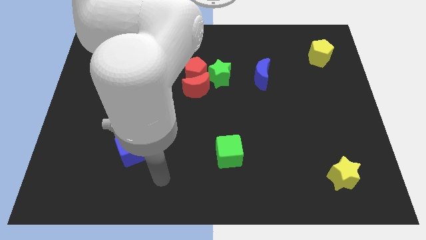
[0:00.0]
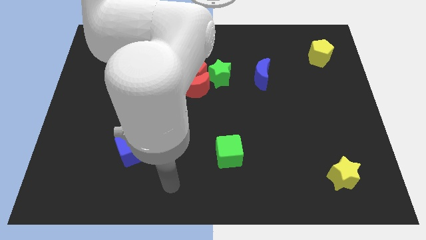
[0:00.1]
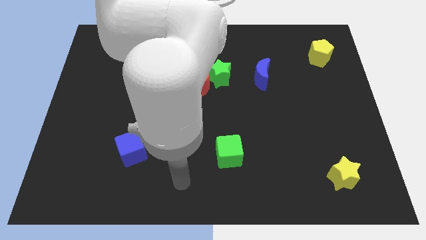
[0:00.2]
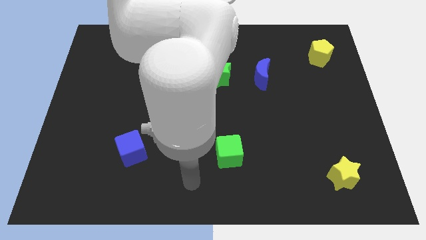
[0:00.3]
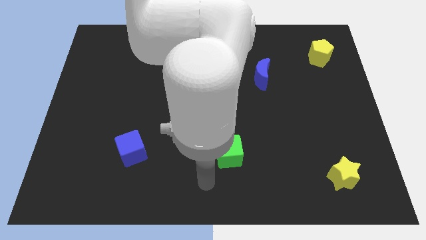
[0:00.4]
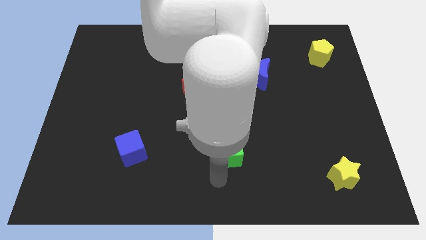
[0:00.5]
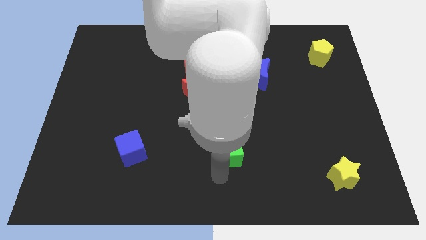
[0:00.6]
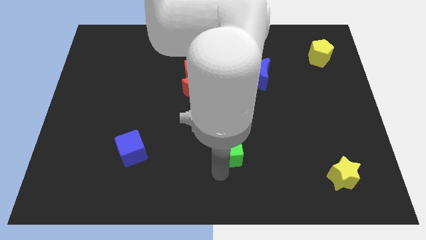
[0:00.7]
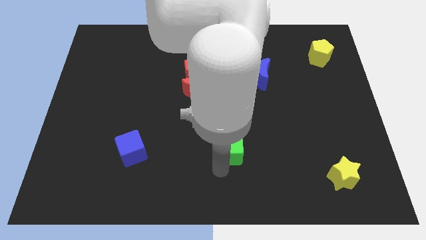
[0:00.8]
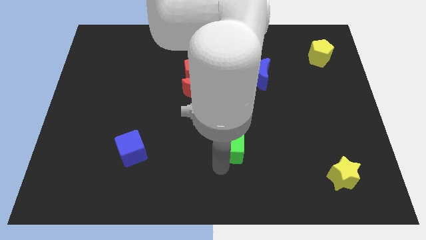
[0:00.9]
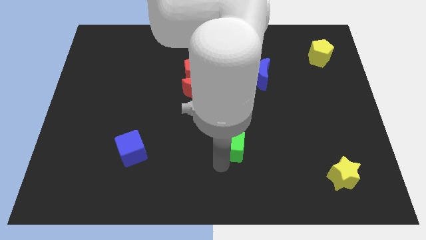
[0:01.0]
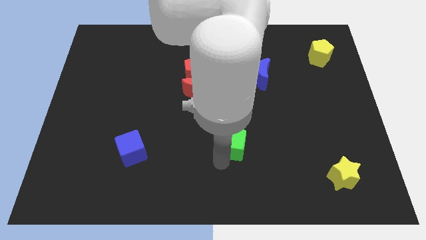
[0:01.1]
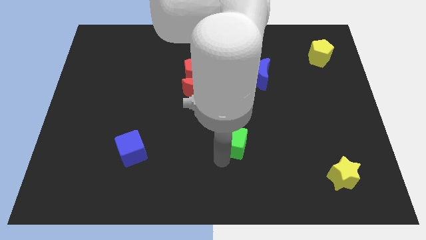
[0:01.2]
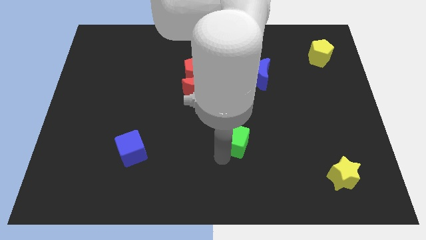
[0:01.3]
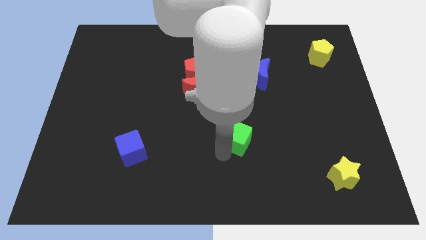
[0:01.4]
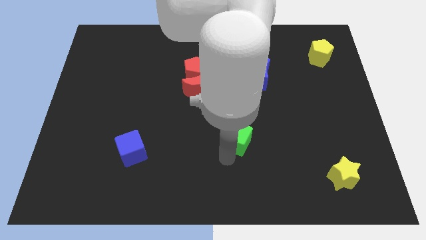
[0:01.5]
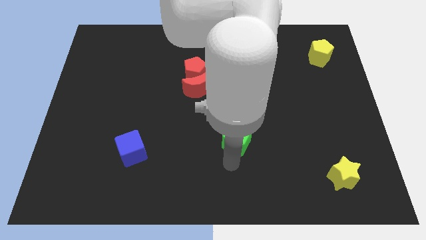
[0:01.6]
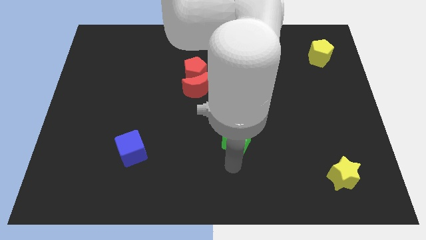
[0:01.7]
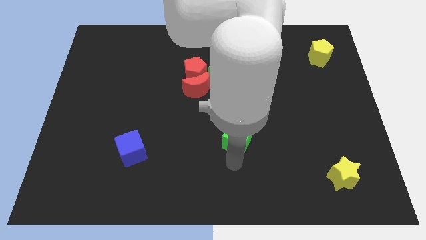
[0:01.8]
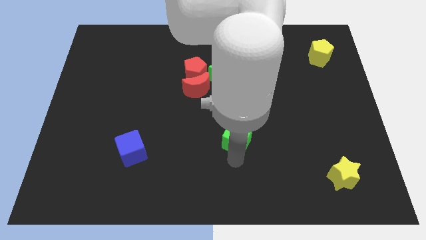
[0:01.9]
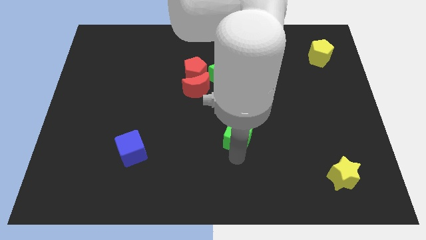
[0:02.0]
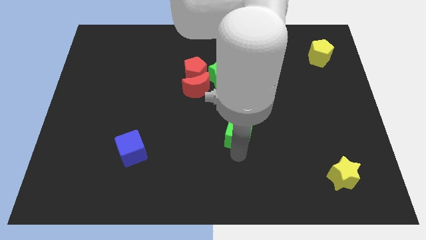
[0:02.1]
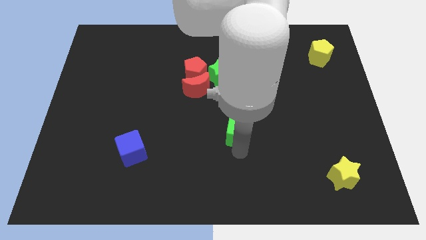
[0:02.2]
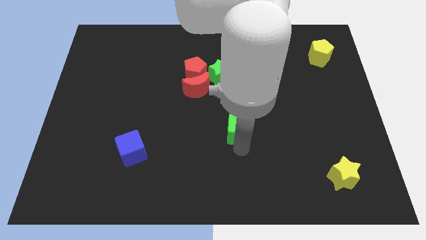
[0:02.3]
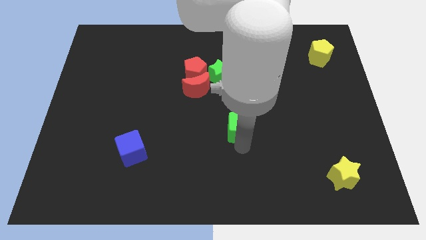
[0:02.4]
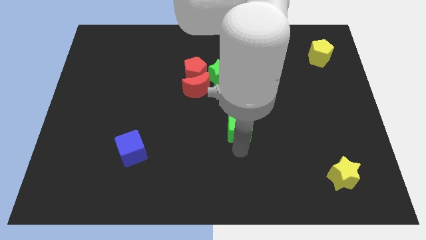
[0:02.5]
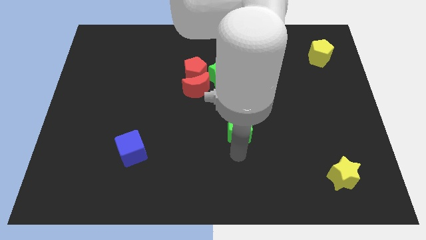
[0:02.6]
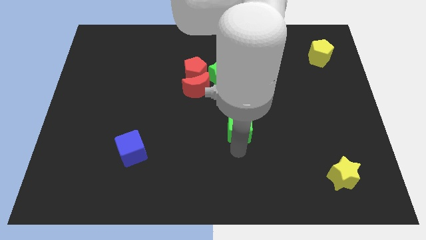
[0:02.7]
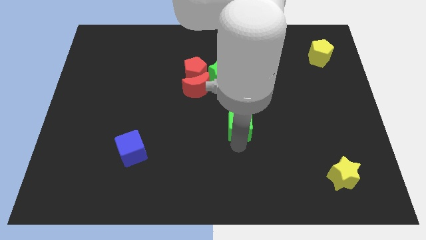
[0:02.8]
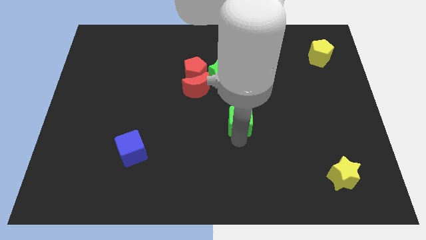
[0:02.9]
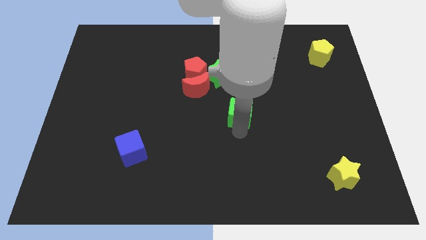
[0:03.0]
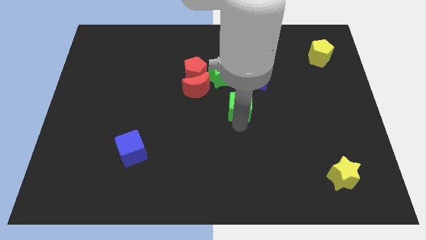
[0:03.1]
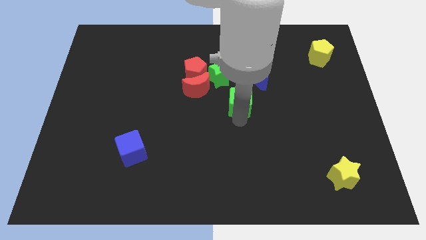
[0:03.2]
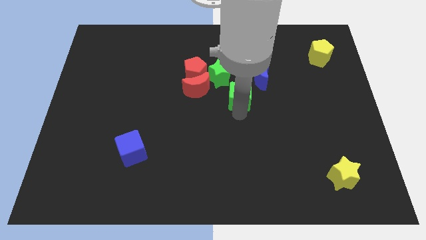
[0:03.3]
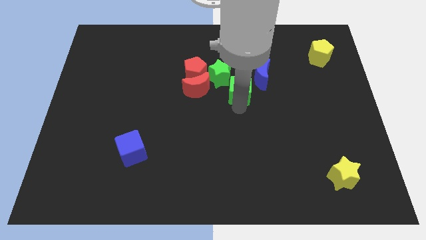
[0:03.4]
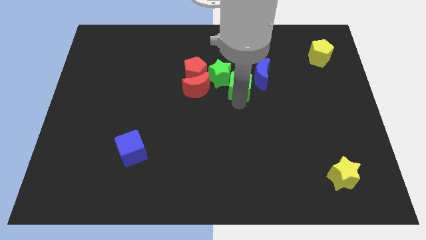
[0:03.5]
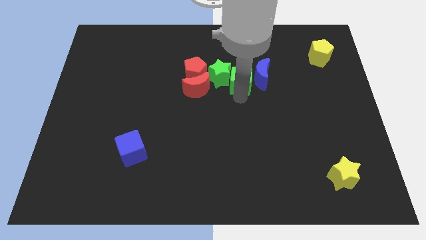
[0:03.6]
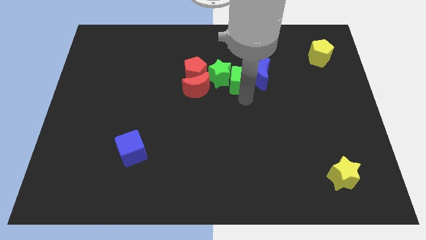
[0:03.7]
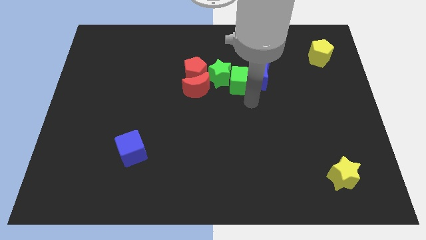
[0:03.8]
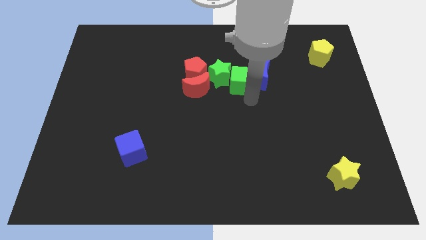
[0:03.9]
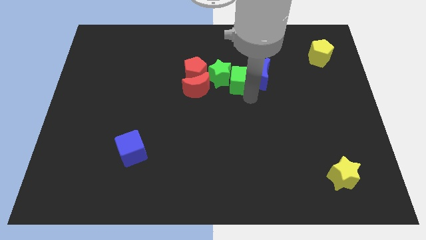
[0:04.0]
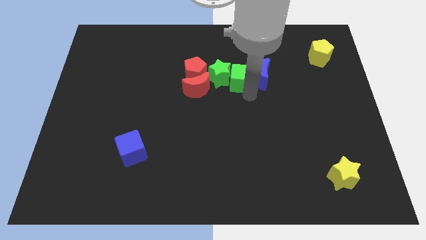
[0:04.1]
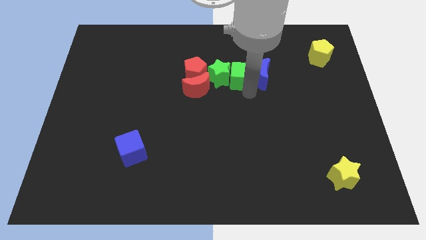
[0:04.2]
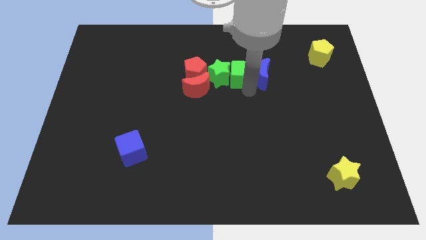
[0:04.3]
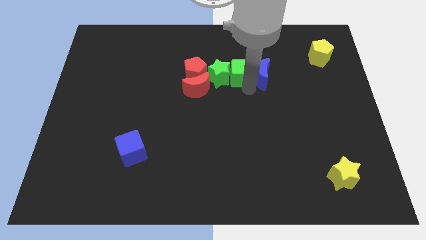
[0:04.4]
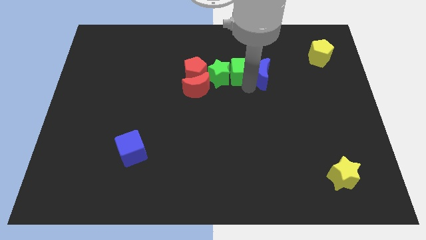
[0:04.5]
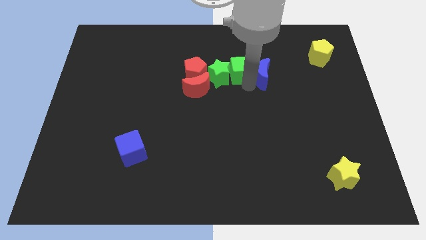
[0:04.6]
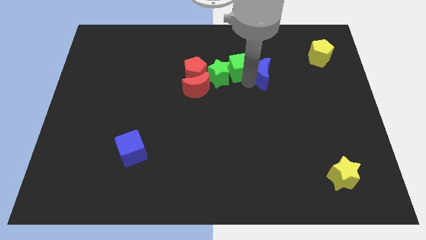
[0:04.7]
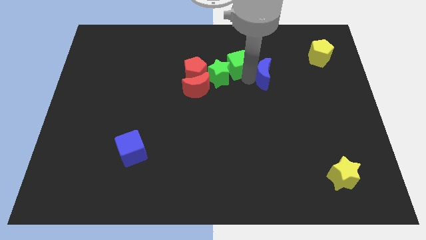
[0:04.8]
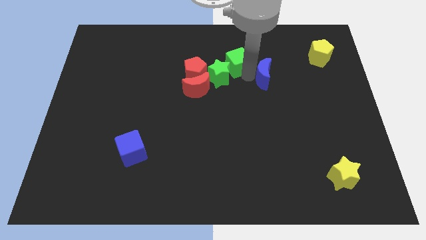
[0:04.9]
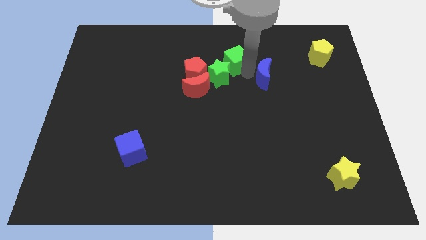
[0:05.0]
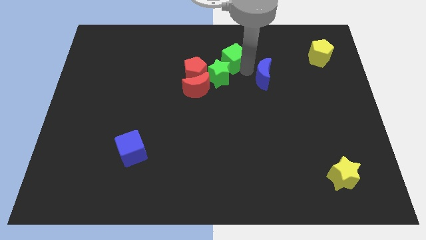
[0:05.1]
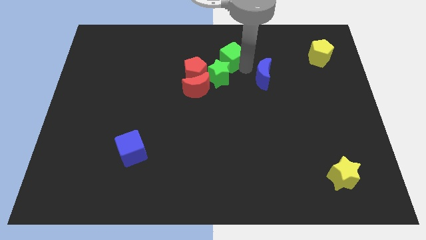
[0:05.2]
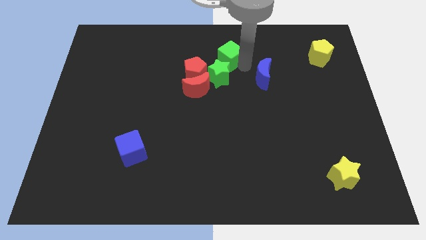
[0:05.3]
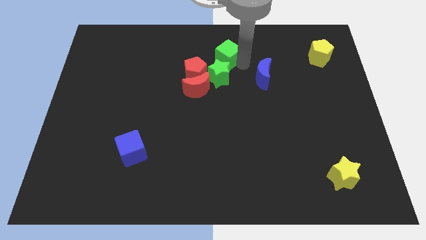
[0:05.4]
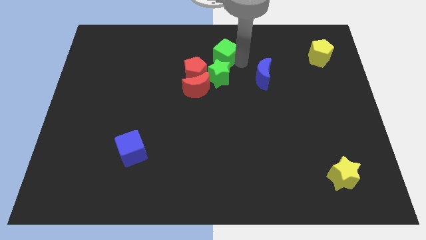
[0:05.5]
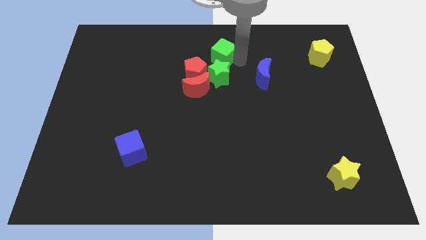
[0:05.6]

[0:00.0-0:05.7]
slide the green cube to the towards your base

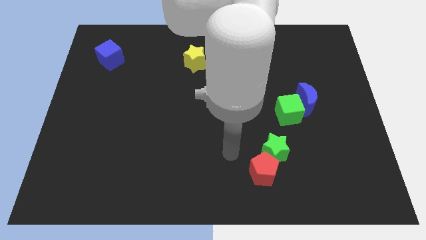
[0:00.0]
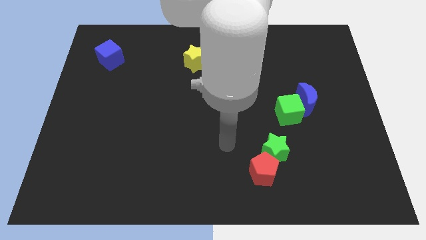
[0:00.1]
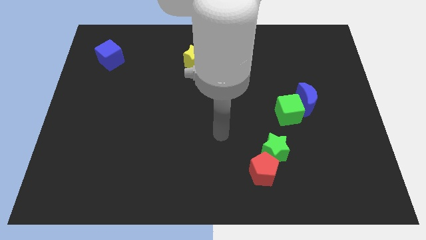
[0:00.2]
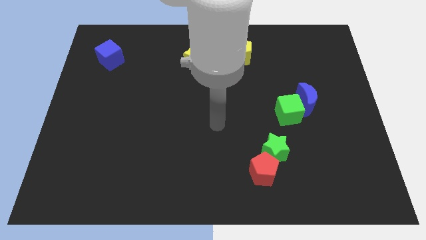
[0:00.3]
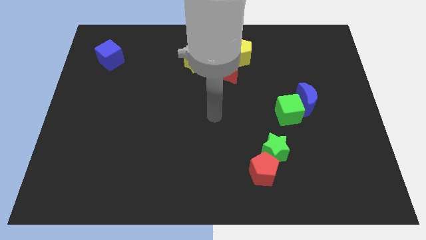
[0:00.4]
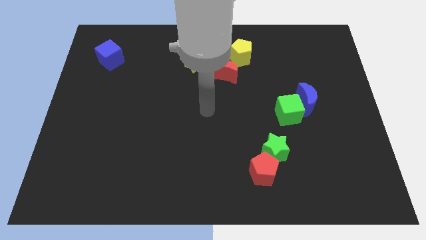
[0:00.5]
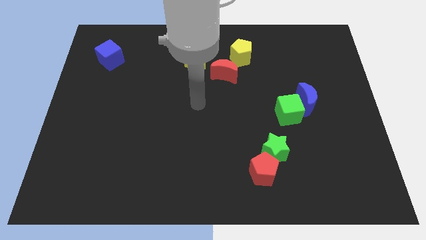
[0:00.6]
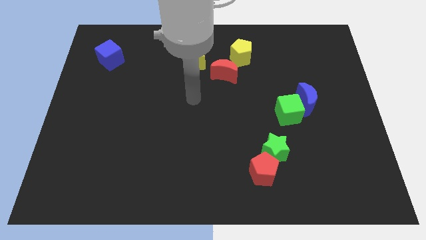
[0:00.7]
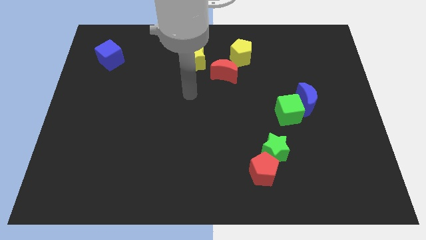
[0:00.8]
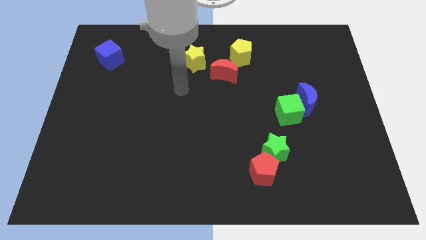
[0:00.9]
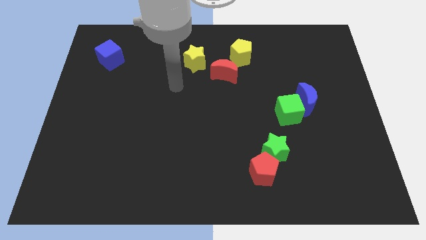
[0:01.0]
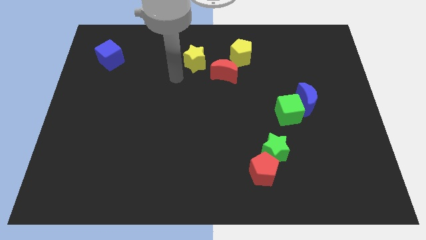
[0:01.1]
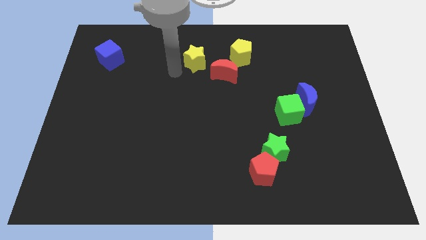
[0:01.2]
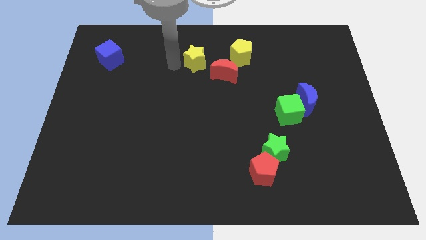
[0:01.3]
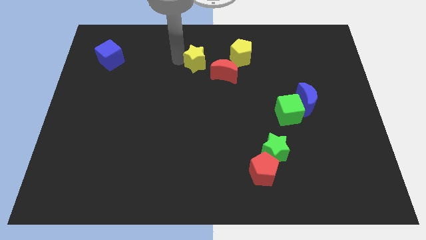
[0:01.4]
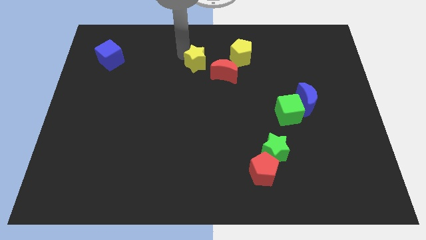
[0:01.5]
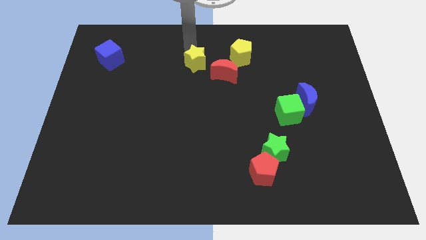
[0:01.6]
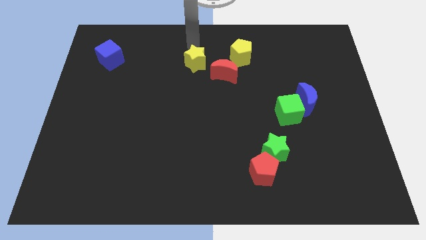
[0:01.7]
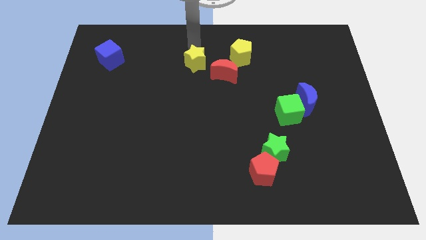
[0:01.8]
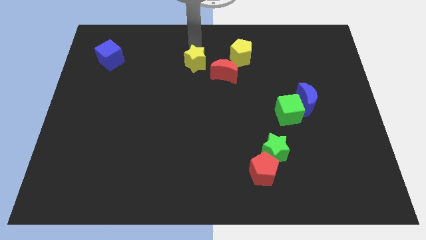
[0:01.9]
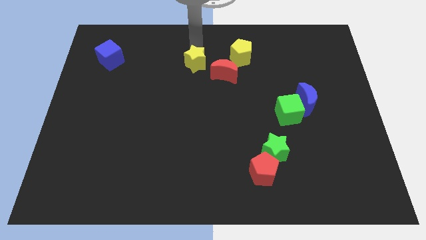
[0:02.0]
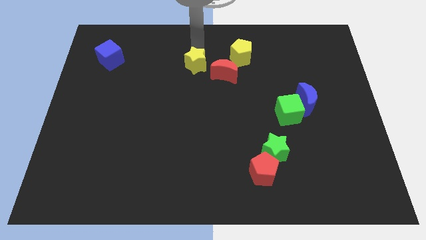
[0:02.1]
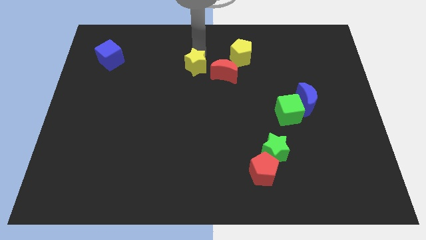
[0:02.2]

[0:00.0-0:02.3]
move the yellow star to the middle
